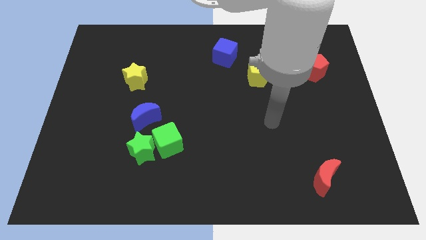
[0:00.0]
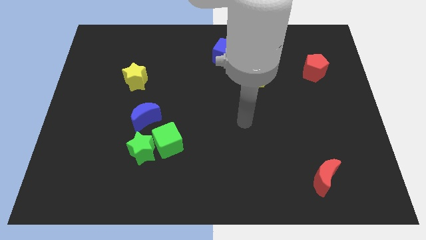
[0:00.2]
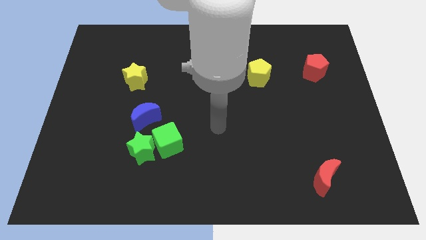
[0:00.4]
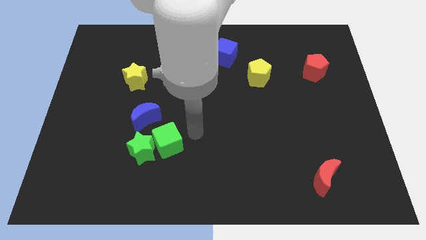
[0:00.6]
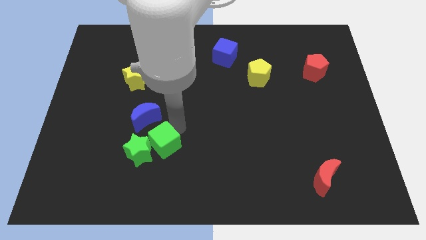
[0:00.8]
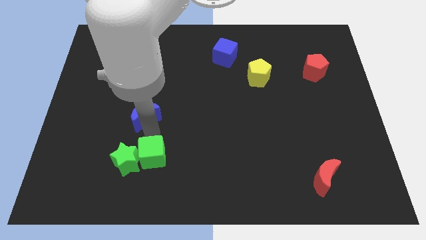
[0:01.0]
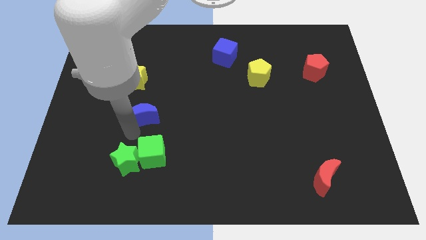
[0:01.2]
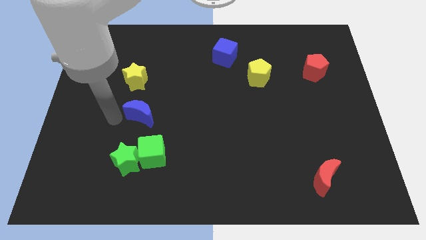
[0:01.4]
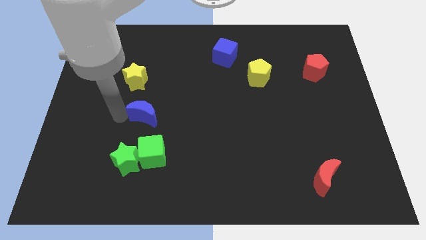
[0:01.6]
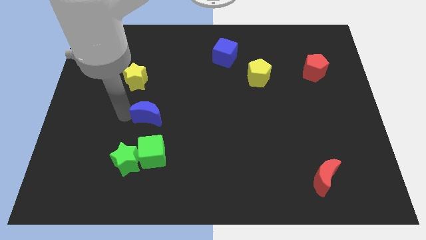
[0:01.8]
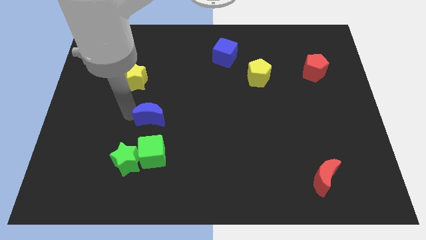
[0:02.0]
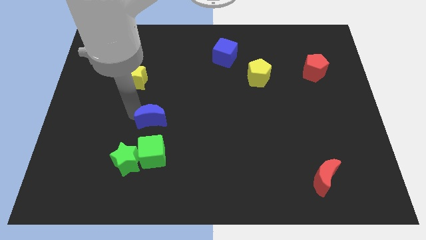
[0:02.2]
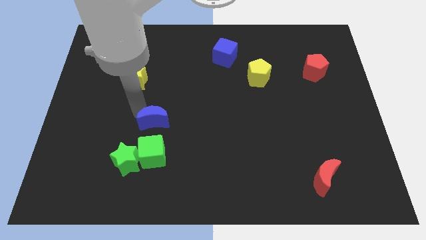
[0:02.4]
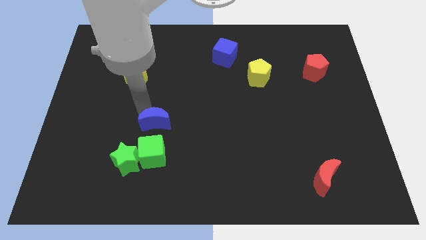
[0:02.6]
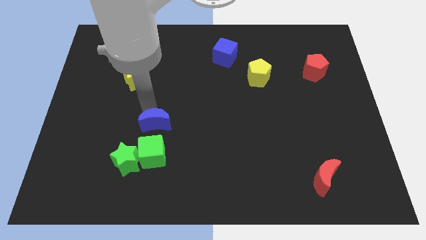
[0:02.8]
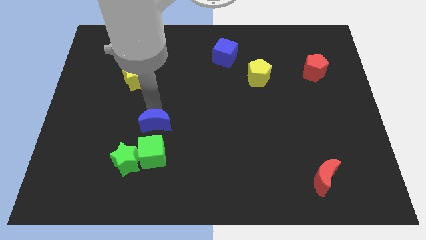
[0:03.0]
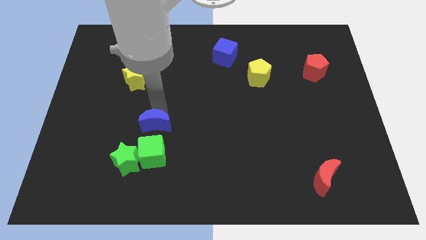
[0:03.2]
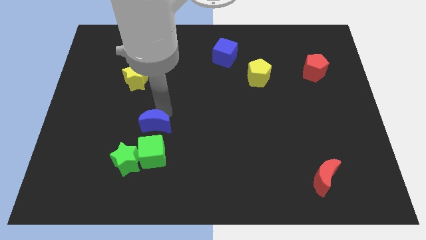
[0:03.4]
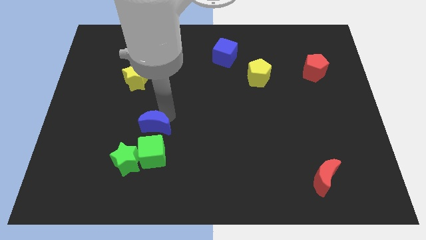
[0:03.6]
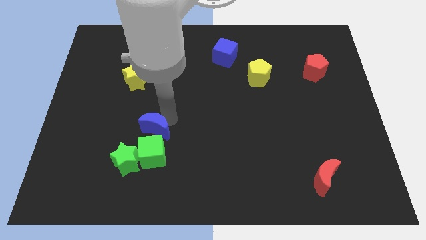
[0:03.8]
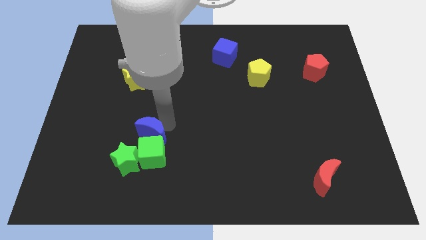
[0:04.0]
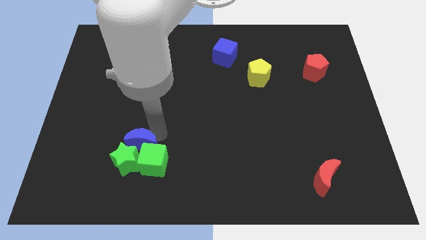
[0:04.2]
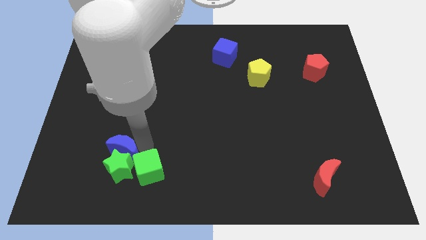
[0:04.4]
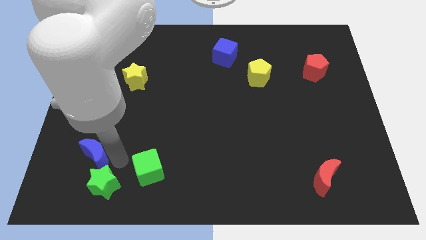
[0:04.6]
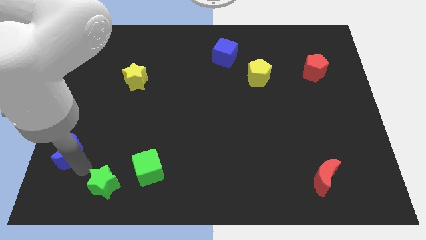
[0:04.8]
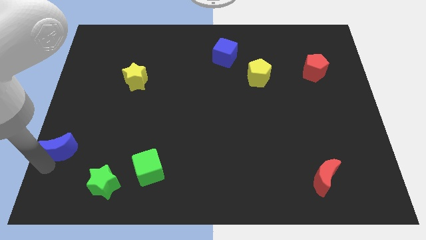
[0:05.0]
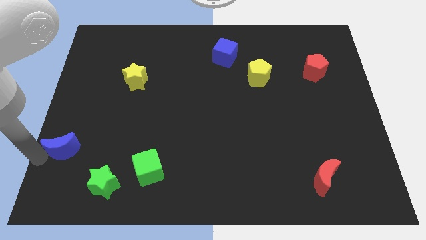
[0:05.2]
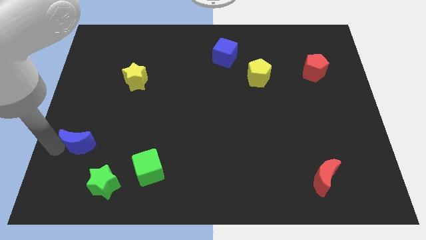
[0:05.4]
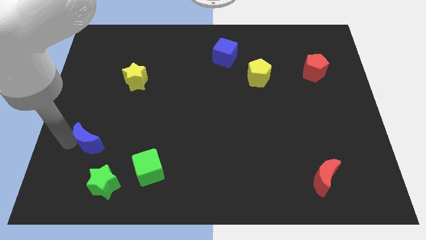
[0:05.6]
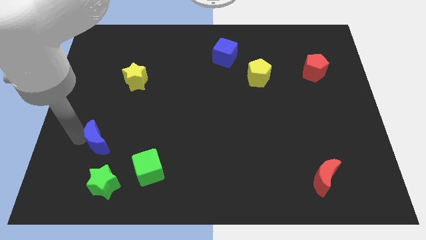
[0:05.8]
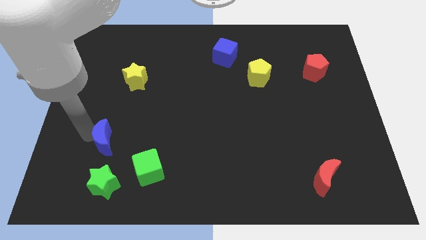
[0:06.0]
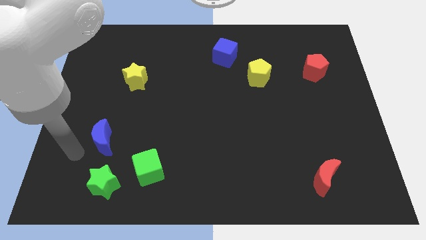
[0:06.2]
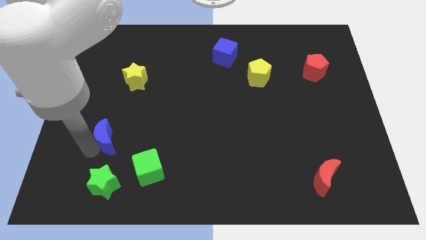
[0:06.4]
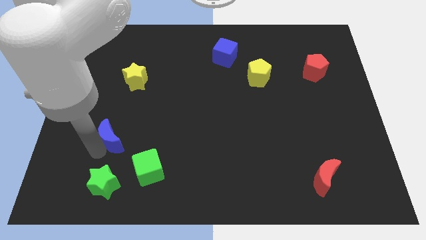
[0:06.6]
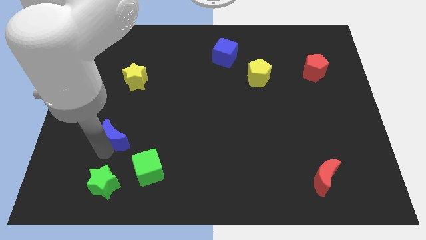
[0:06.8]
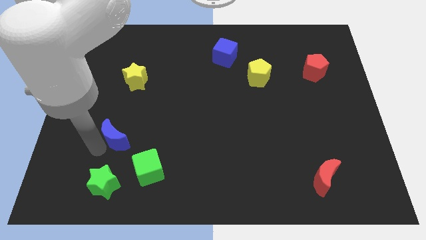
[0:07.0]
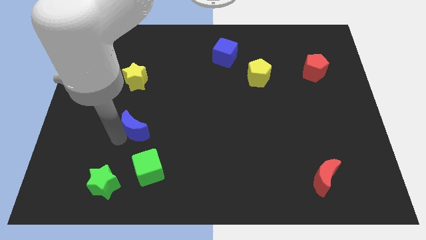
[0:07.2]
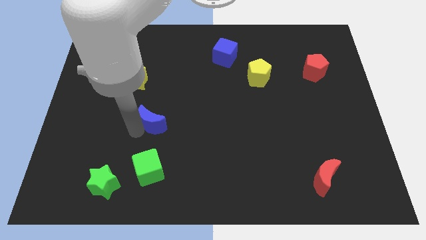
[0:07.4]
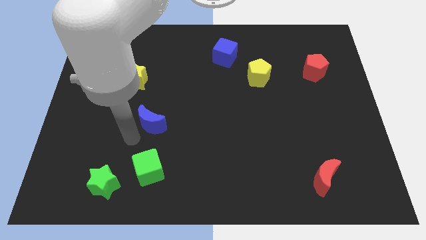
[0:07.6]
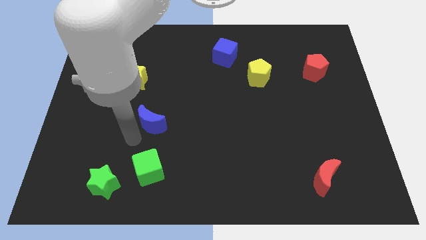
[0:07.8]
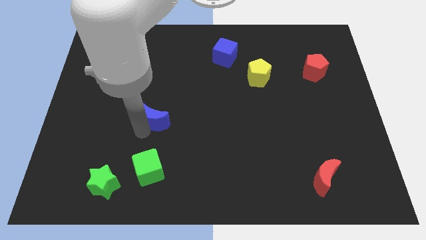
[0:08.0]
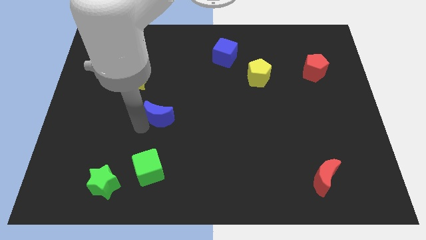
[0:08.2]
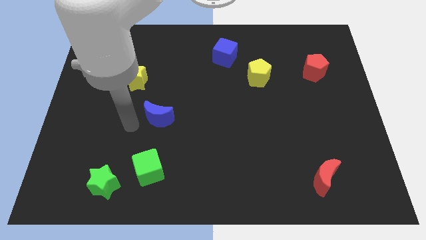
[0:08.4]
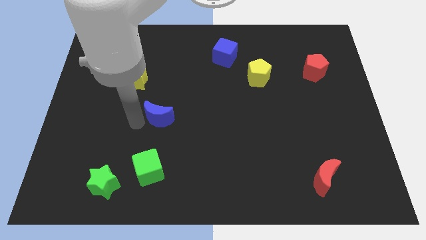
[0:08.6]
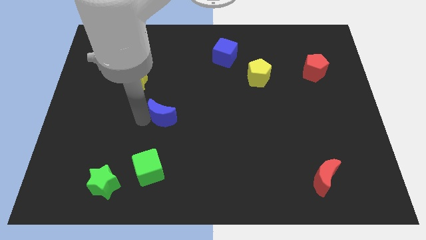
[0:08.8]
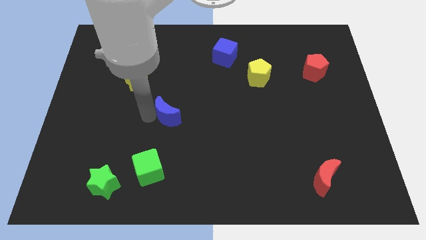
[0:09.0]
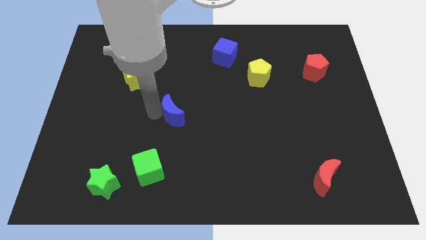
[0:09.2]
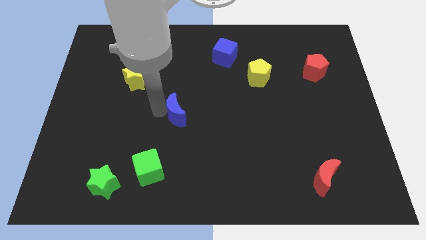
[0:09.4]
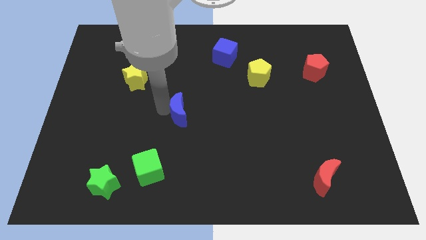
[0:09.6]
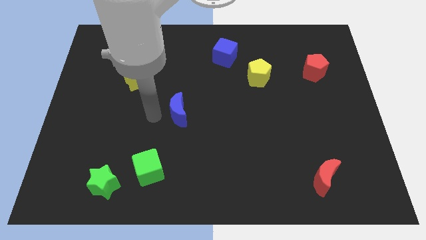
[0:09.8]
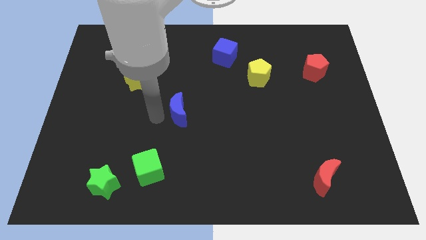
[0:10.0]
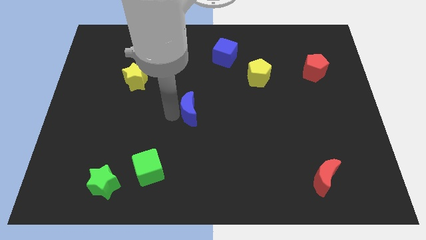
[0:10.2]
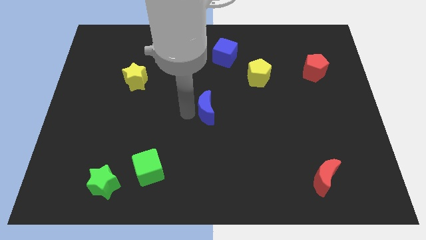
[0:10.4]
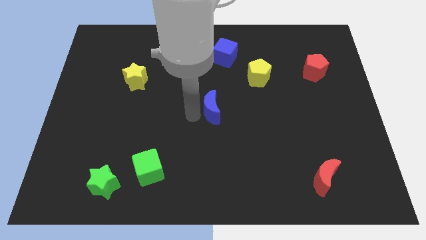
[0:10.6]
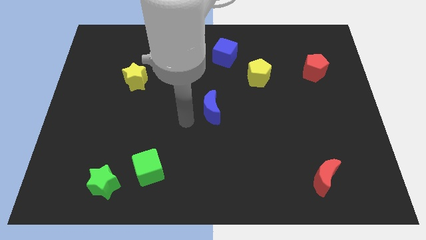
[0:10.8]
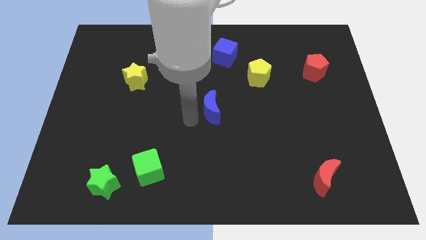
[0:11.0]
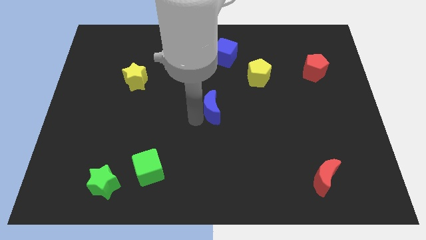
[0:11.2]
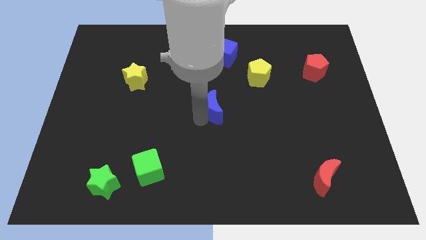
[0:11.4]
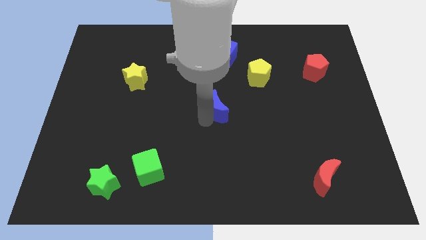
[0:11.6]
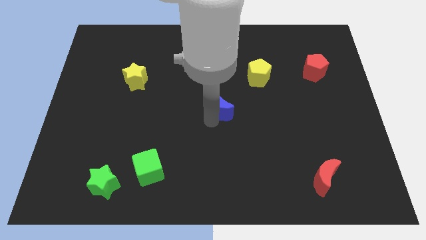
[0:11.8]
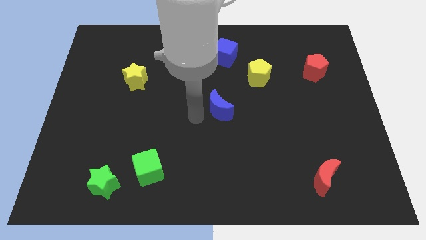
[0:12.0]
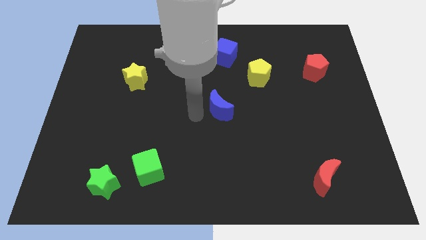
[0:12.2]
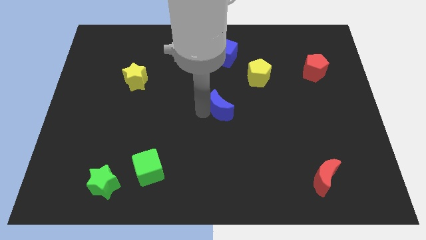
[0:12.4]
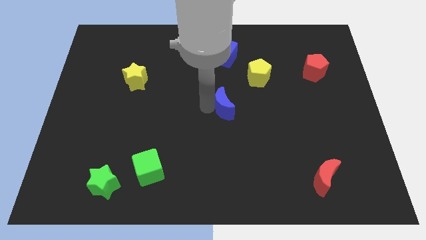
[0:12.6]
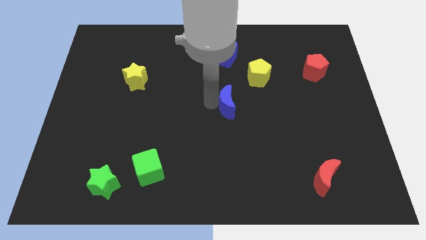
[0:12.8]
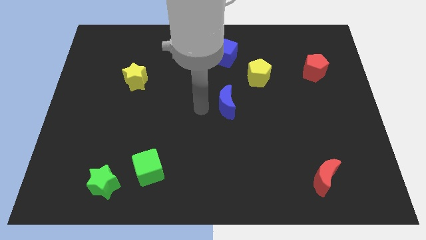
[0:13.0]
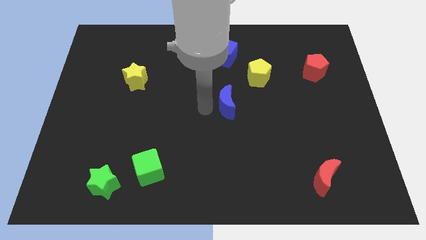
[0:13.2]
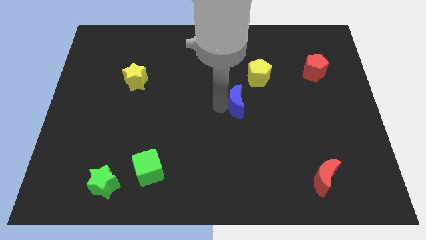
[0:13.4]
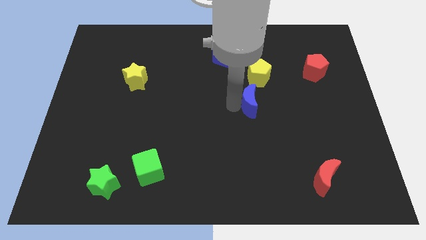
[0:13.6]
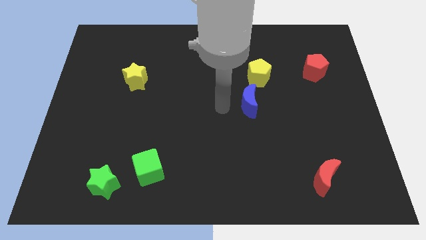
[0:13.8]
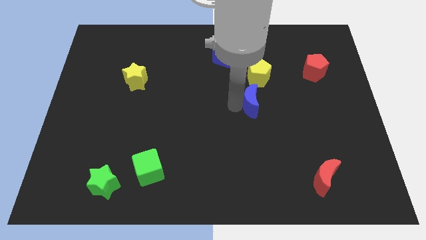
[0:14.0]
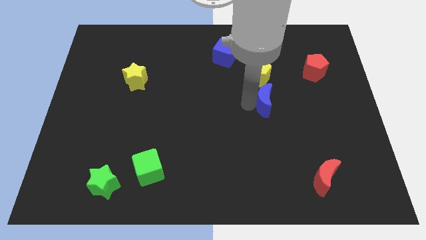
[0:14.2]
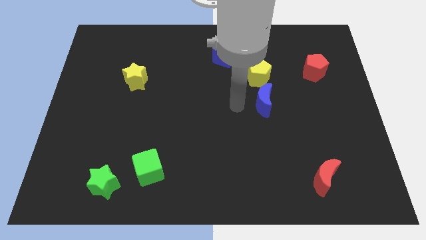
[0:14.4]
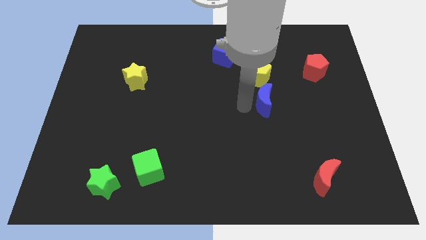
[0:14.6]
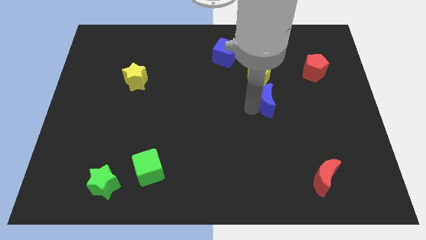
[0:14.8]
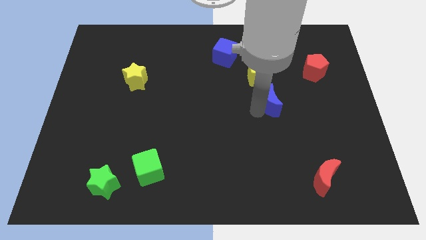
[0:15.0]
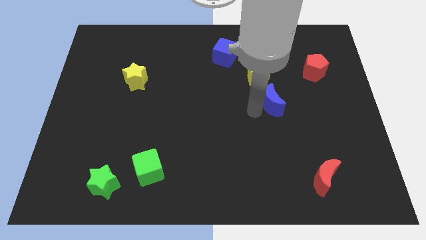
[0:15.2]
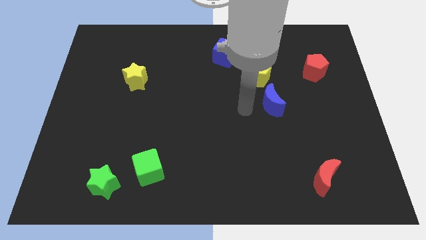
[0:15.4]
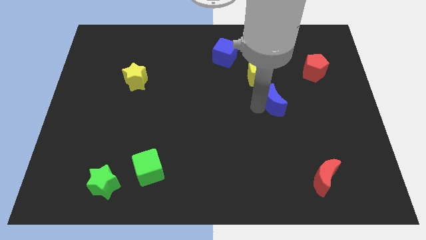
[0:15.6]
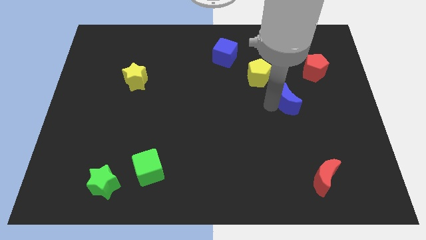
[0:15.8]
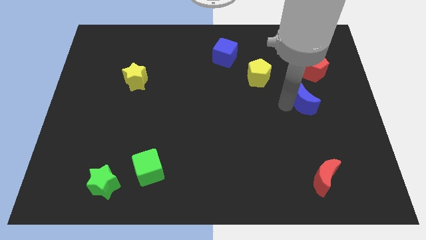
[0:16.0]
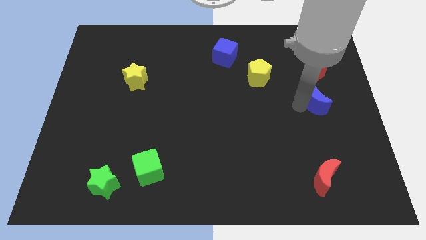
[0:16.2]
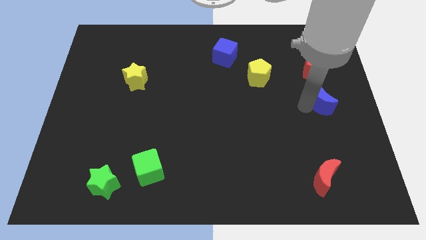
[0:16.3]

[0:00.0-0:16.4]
put the blue moon to the right side
